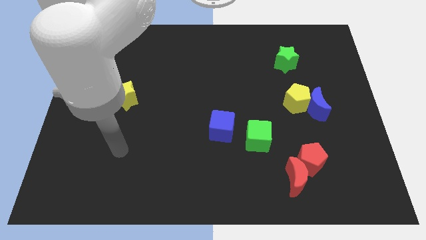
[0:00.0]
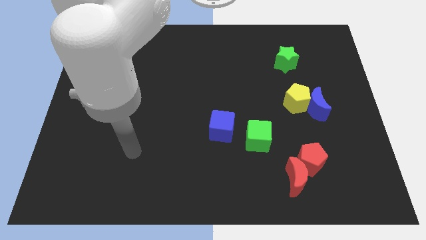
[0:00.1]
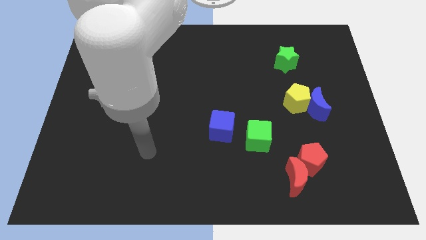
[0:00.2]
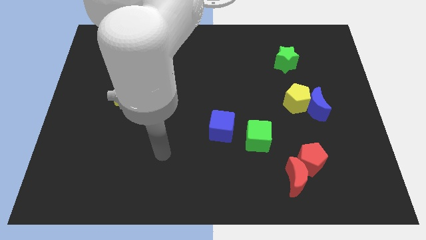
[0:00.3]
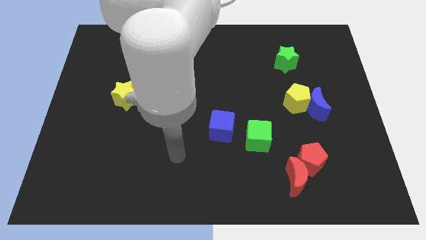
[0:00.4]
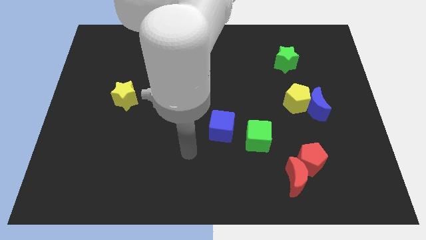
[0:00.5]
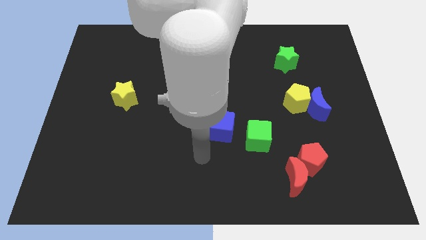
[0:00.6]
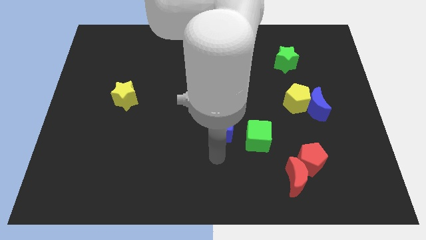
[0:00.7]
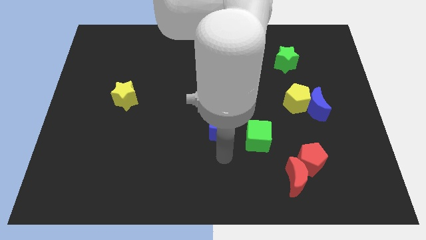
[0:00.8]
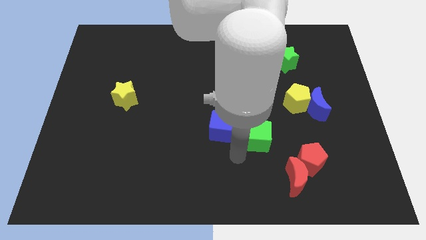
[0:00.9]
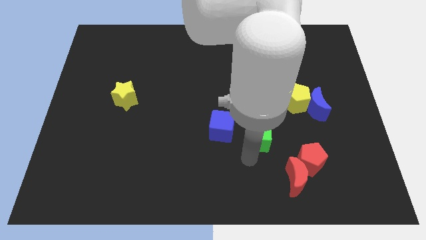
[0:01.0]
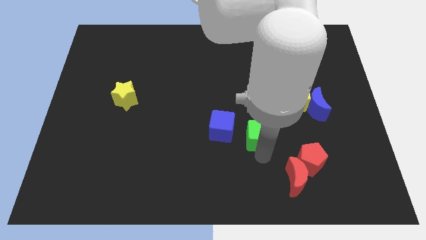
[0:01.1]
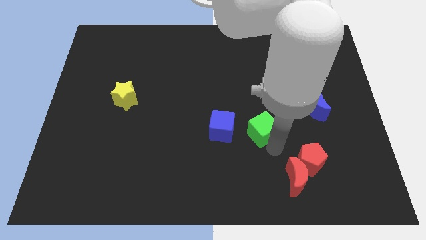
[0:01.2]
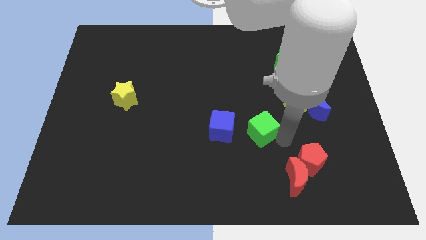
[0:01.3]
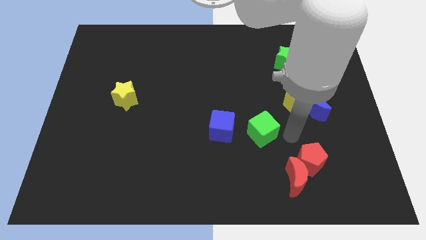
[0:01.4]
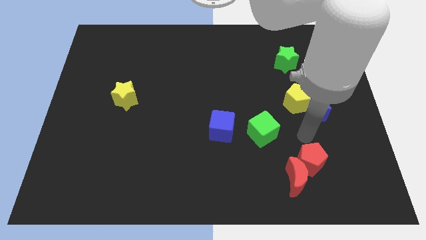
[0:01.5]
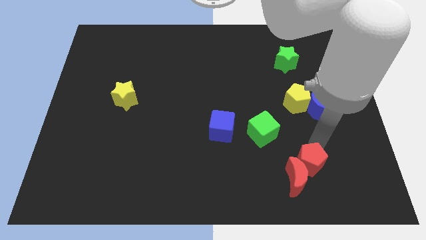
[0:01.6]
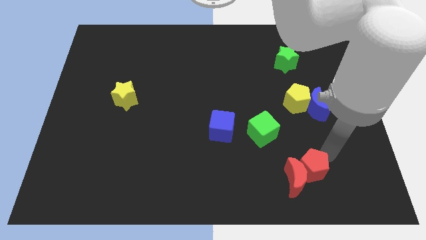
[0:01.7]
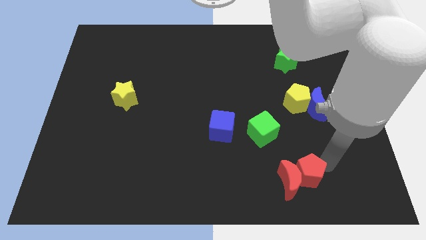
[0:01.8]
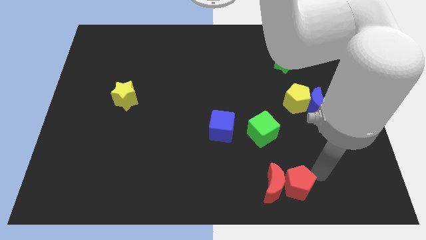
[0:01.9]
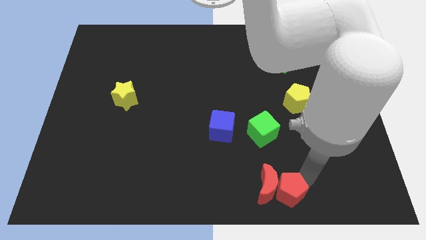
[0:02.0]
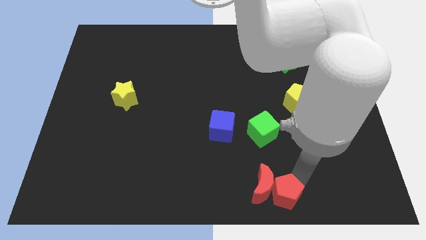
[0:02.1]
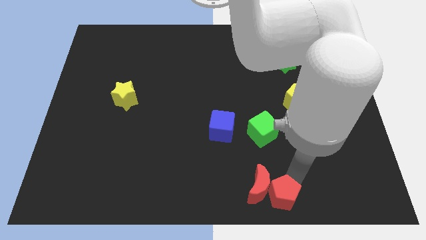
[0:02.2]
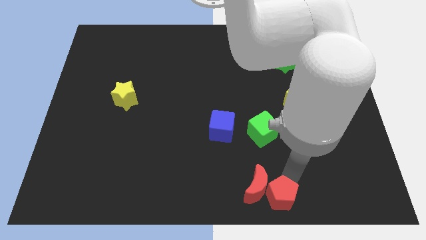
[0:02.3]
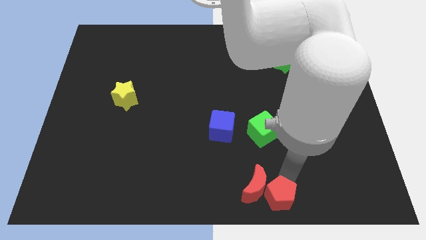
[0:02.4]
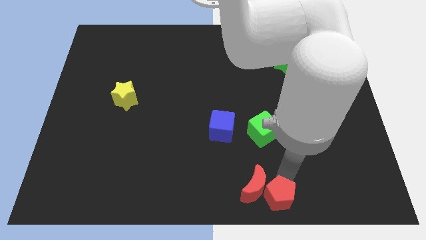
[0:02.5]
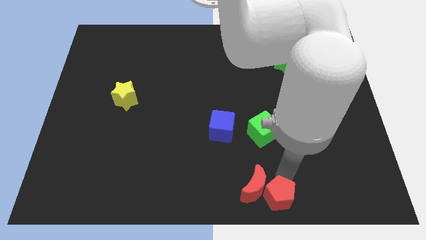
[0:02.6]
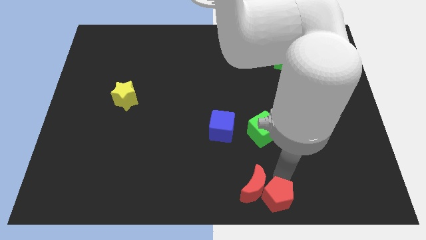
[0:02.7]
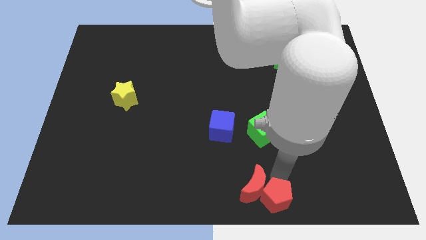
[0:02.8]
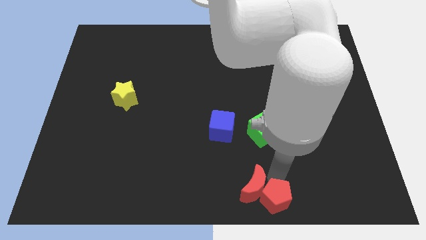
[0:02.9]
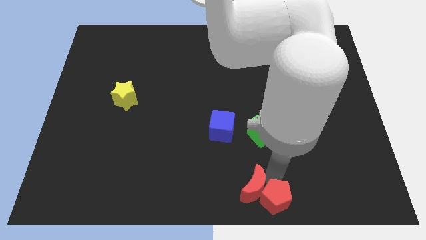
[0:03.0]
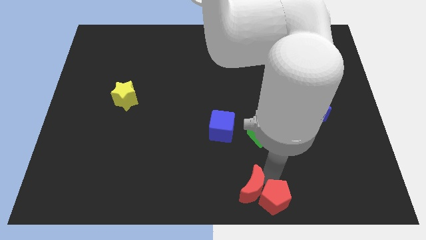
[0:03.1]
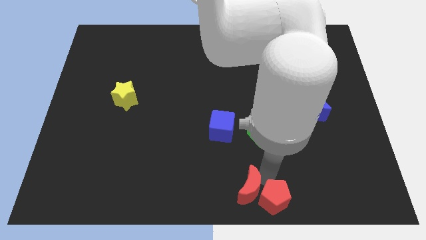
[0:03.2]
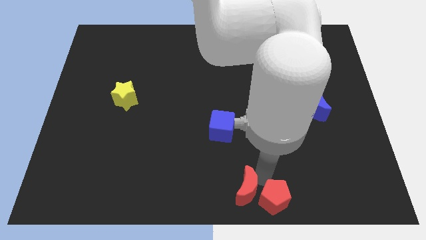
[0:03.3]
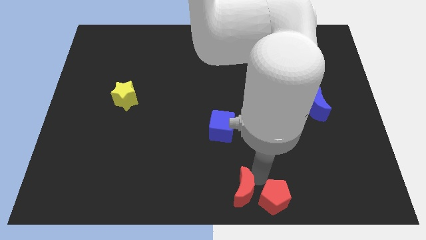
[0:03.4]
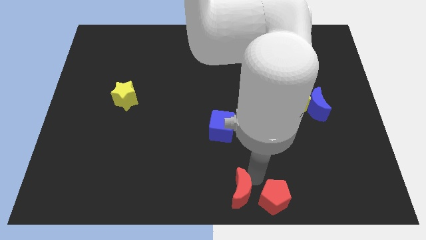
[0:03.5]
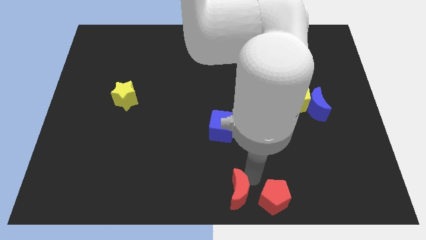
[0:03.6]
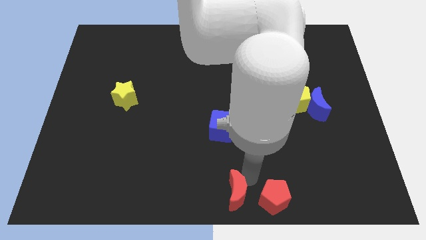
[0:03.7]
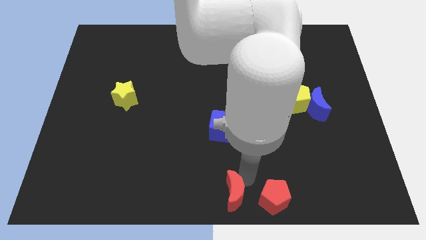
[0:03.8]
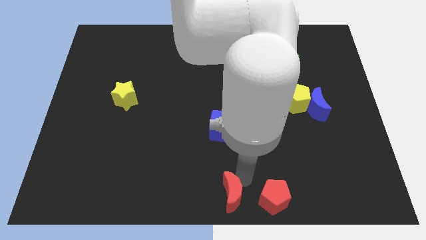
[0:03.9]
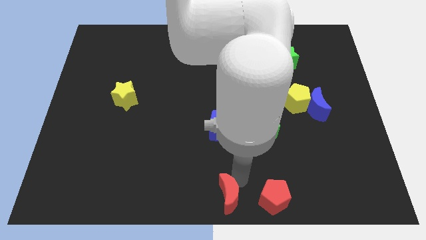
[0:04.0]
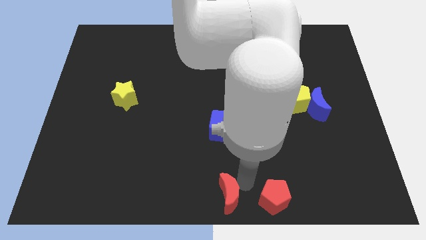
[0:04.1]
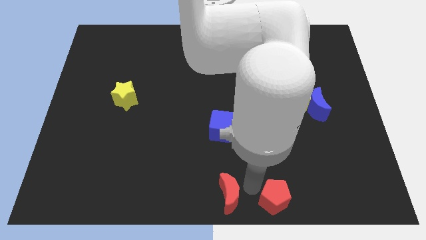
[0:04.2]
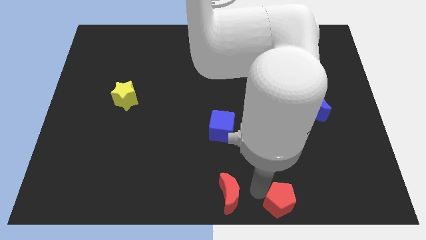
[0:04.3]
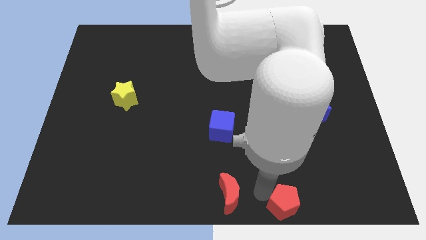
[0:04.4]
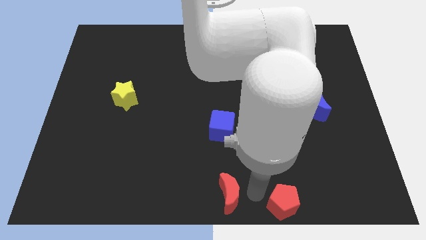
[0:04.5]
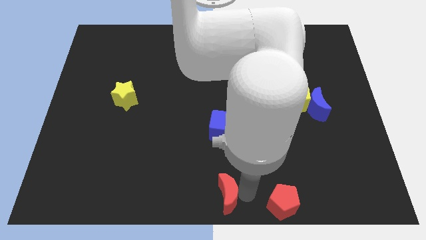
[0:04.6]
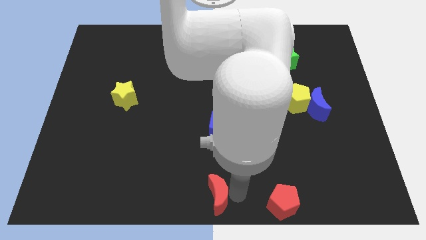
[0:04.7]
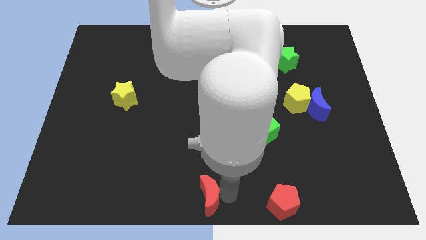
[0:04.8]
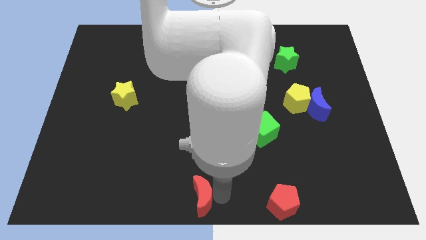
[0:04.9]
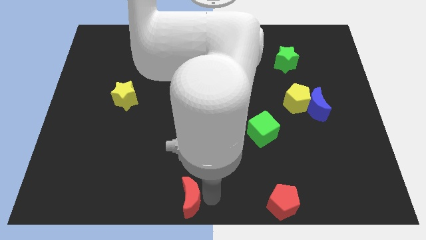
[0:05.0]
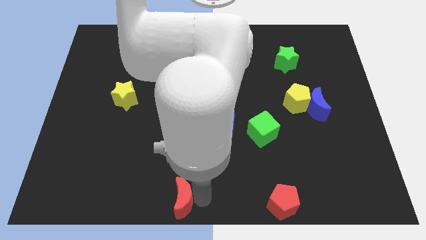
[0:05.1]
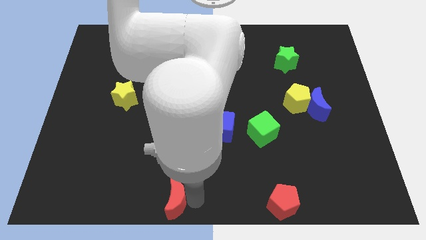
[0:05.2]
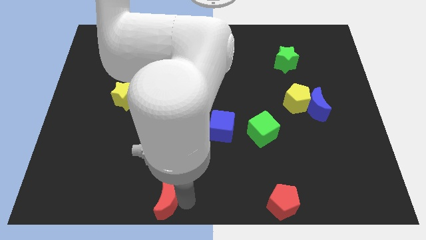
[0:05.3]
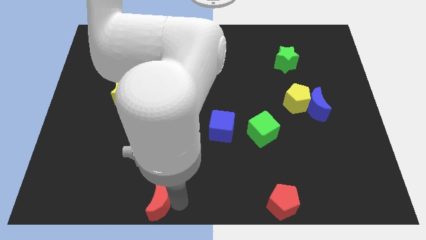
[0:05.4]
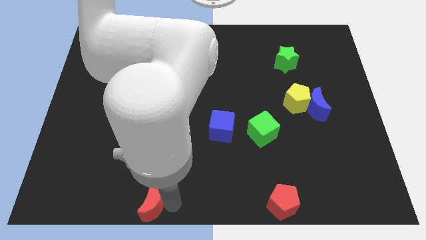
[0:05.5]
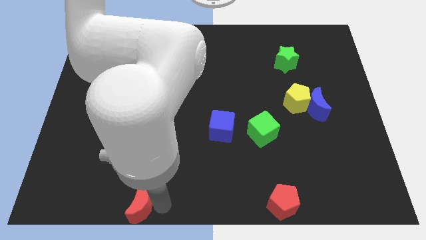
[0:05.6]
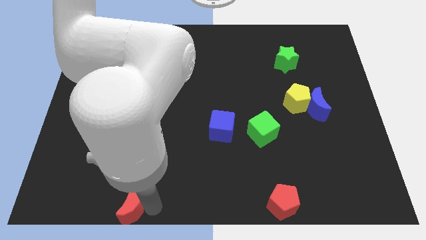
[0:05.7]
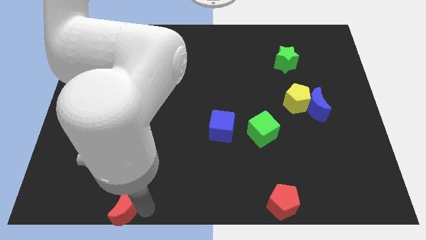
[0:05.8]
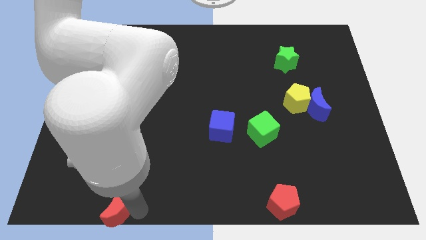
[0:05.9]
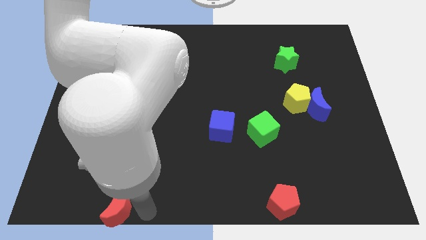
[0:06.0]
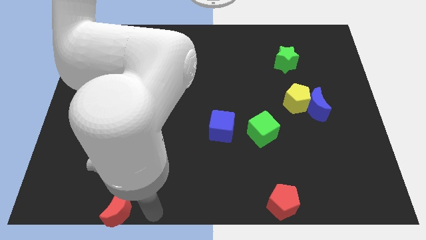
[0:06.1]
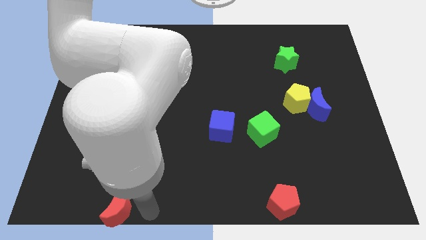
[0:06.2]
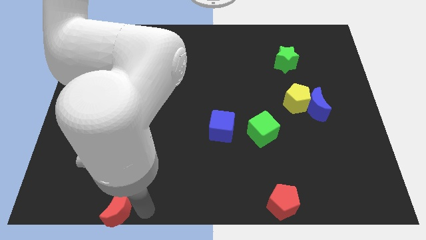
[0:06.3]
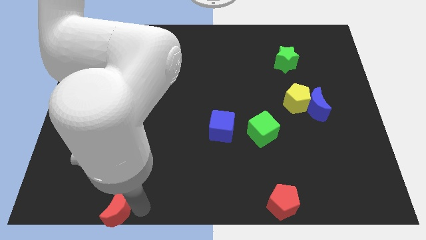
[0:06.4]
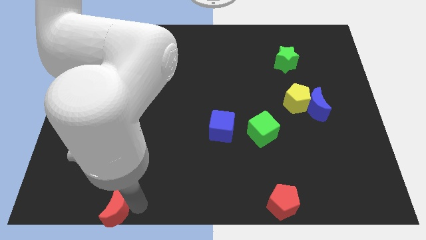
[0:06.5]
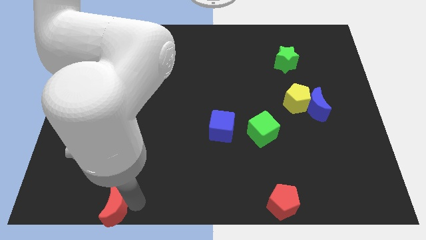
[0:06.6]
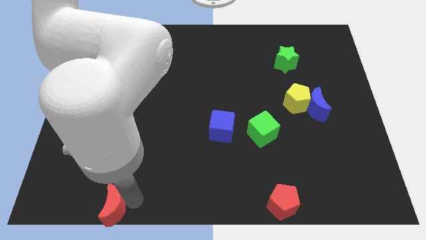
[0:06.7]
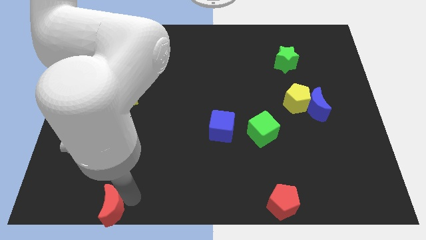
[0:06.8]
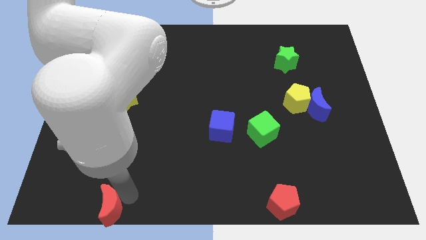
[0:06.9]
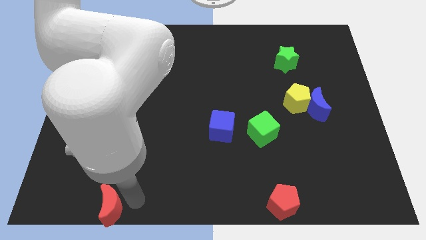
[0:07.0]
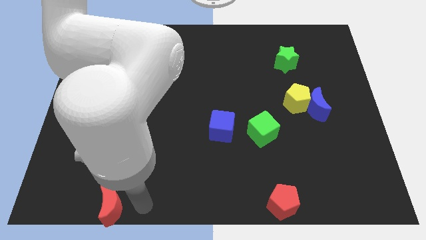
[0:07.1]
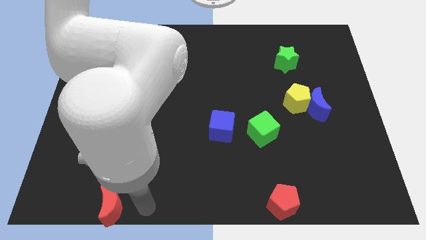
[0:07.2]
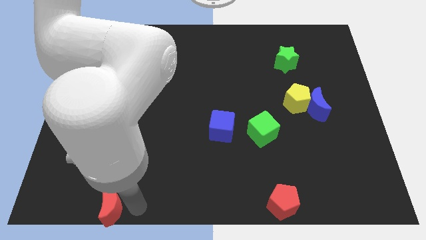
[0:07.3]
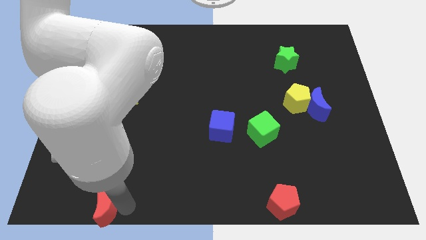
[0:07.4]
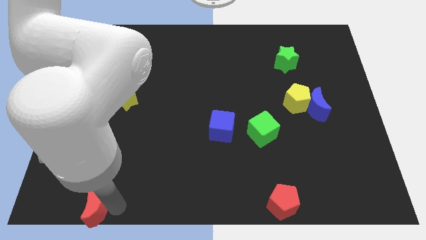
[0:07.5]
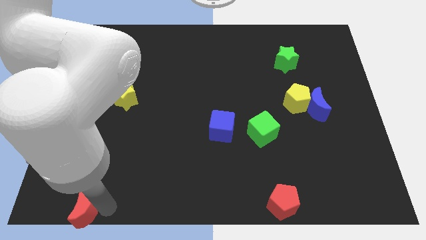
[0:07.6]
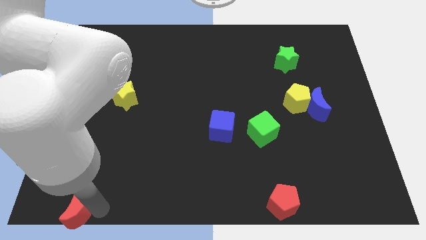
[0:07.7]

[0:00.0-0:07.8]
push the red moon to the bottom left corner
